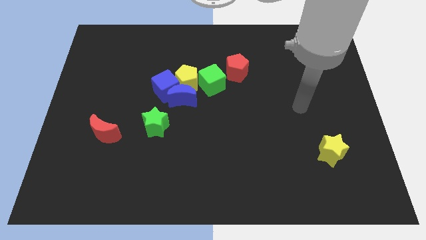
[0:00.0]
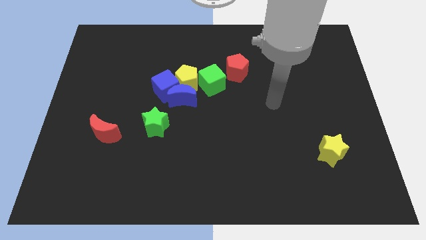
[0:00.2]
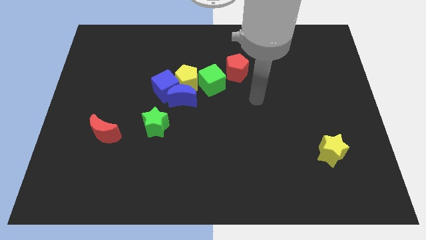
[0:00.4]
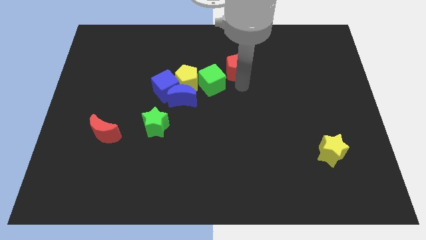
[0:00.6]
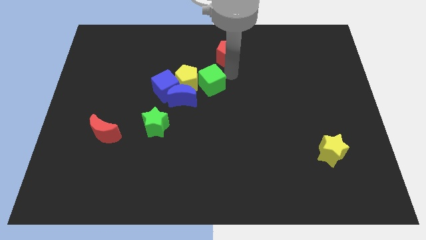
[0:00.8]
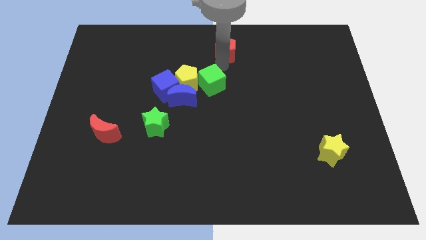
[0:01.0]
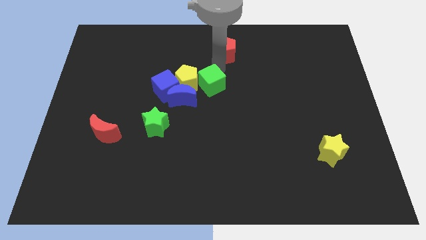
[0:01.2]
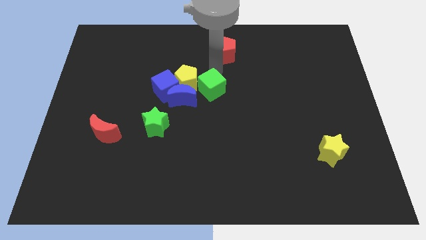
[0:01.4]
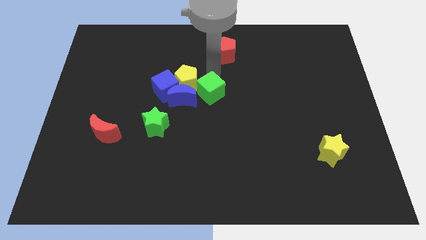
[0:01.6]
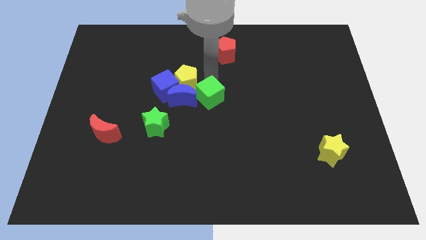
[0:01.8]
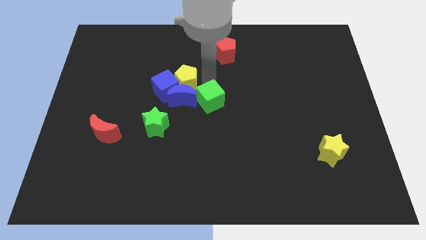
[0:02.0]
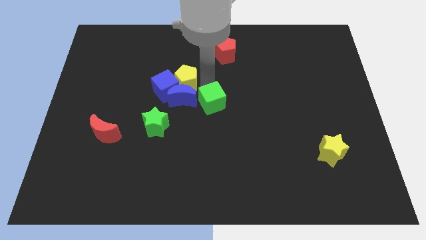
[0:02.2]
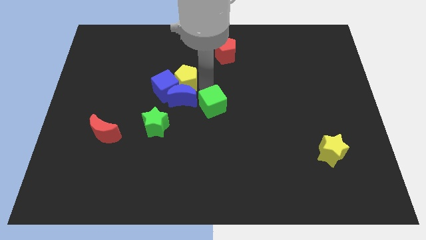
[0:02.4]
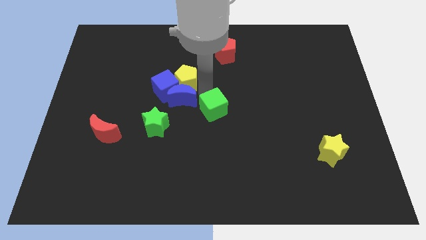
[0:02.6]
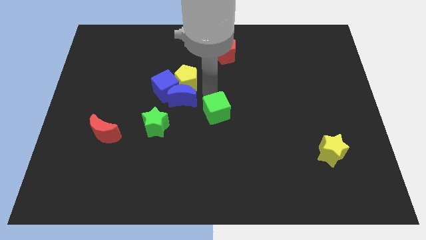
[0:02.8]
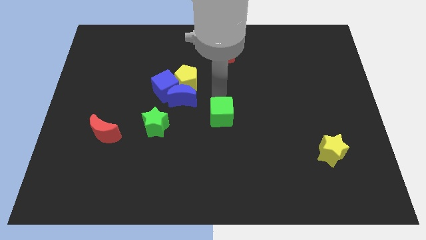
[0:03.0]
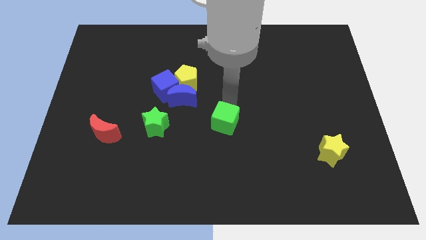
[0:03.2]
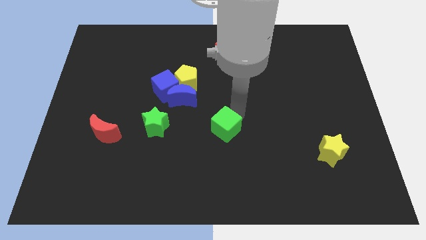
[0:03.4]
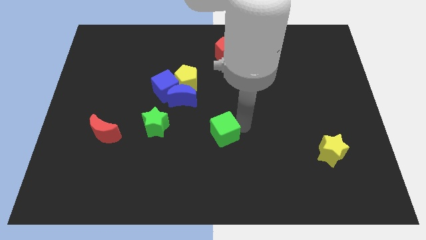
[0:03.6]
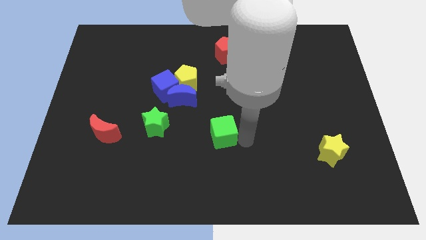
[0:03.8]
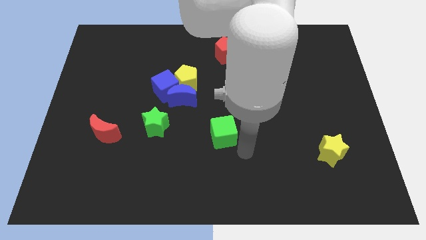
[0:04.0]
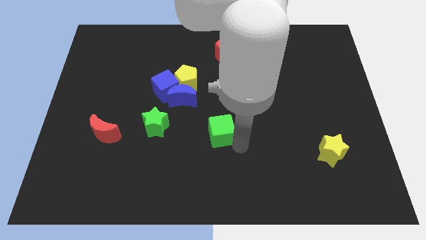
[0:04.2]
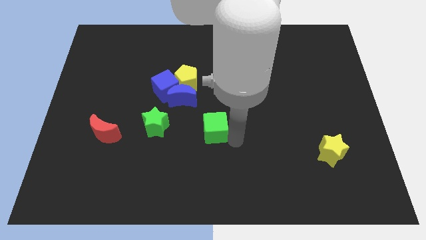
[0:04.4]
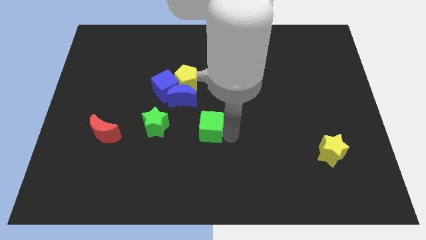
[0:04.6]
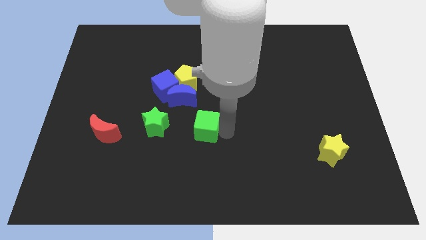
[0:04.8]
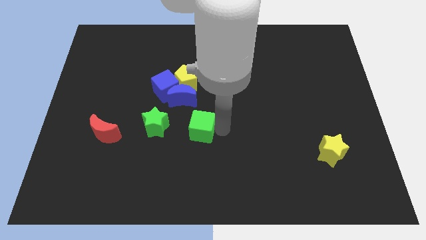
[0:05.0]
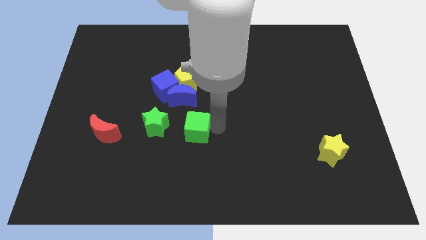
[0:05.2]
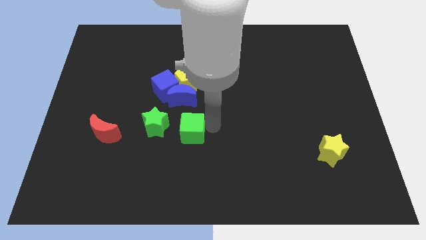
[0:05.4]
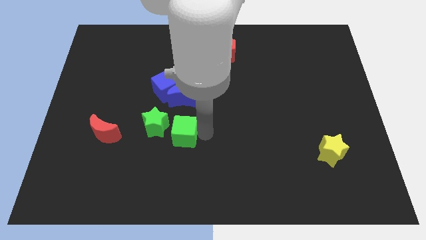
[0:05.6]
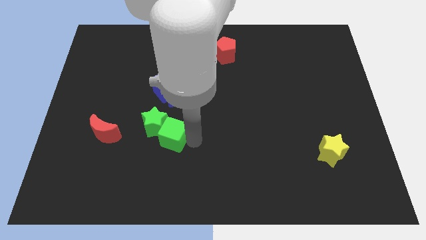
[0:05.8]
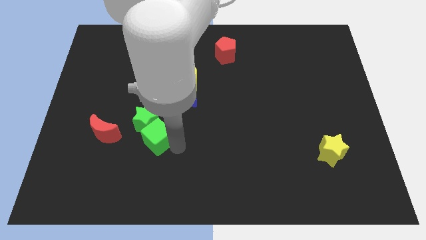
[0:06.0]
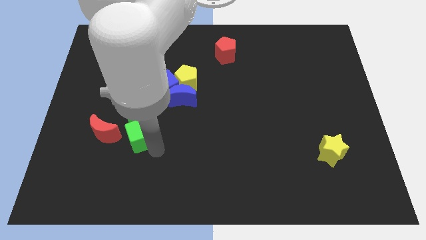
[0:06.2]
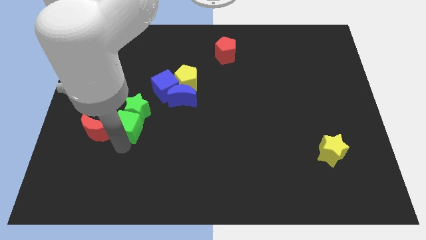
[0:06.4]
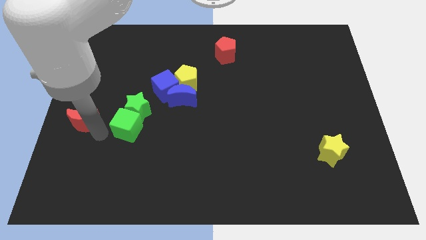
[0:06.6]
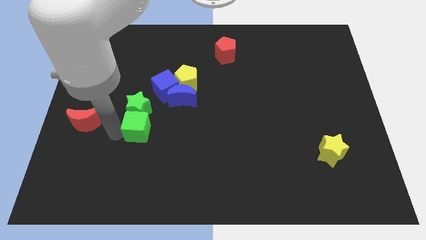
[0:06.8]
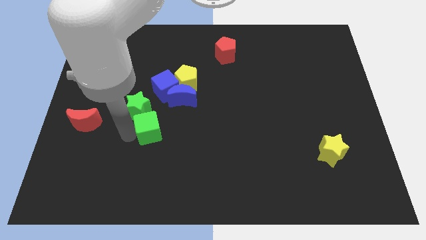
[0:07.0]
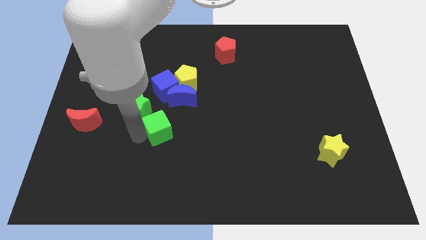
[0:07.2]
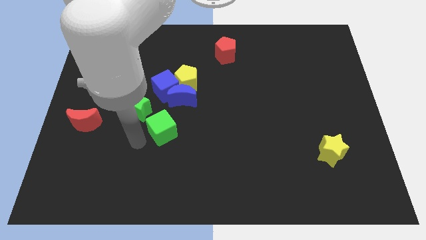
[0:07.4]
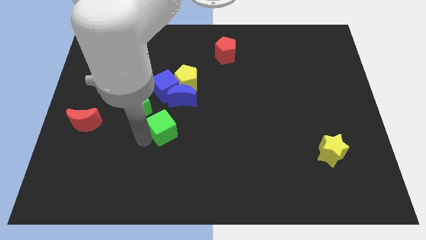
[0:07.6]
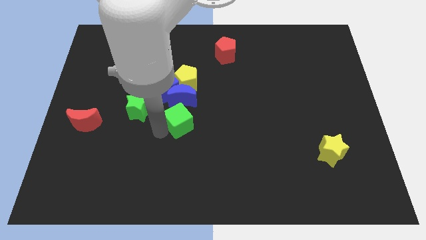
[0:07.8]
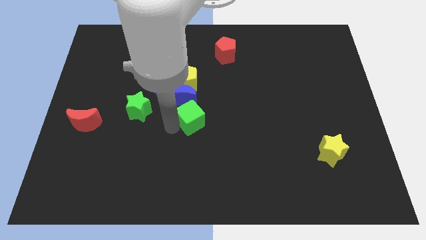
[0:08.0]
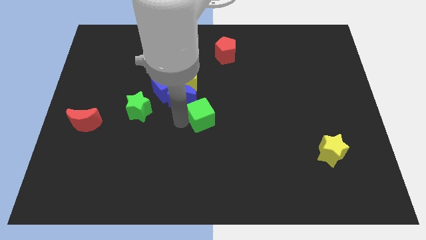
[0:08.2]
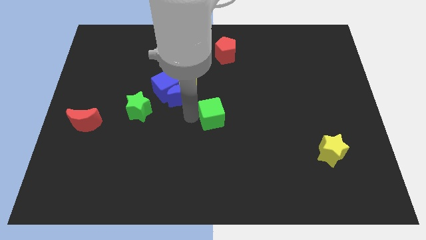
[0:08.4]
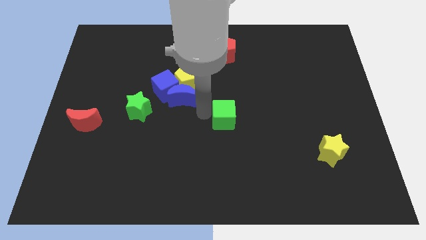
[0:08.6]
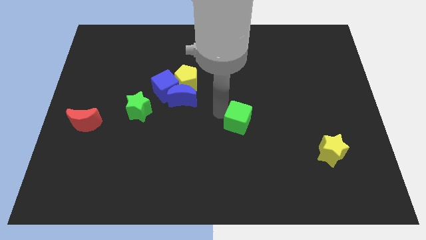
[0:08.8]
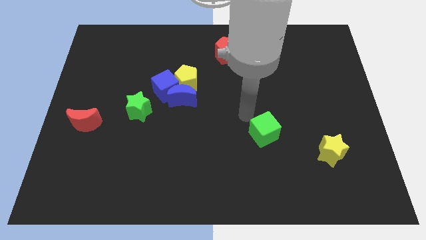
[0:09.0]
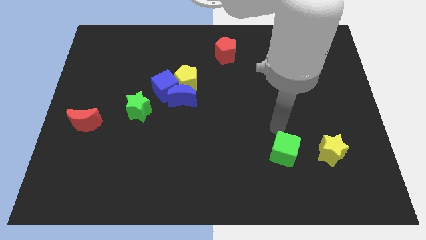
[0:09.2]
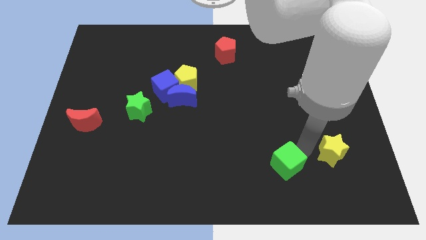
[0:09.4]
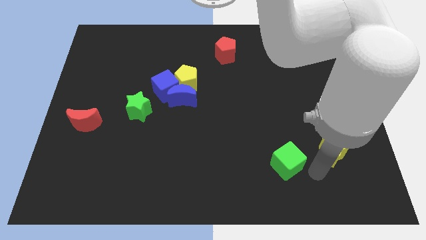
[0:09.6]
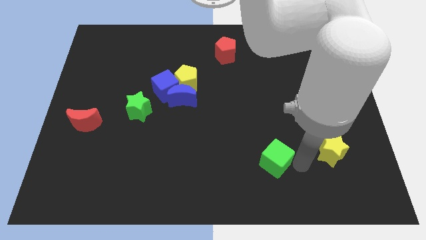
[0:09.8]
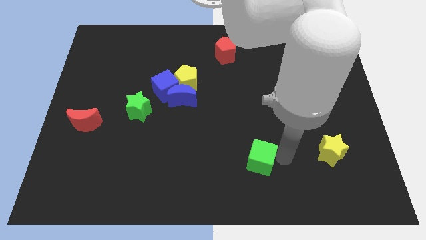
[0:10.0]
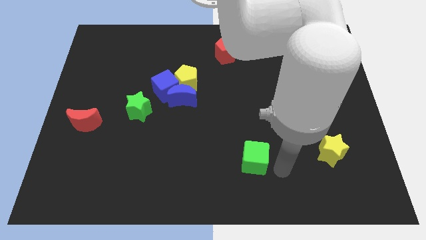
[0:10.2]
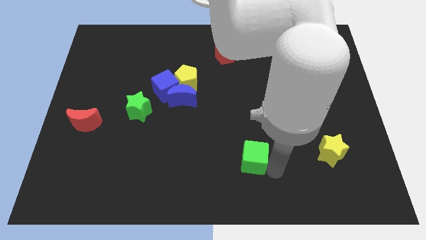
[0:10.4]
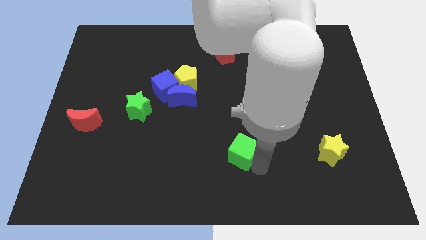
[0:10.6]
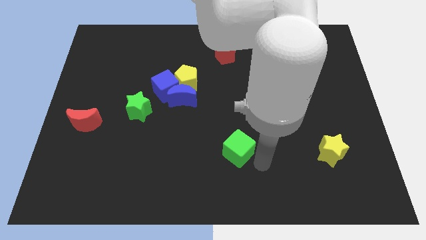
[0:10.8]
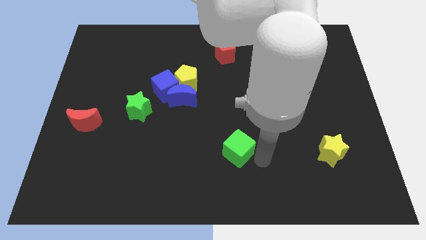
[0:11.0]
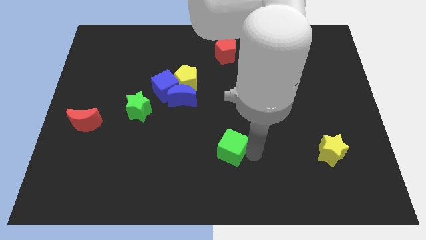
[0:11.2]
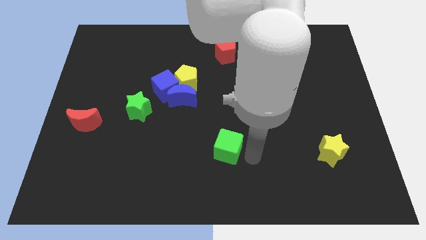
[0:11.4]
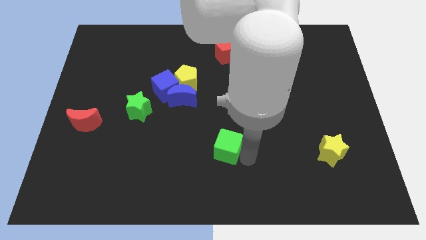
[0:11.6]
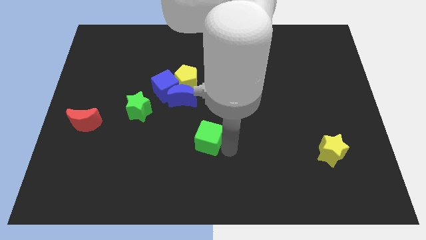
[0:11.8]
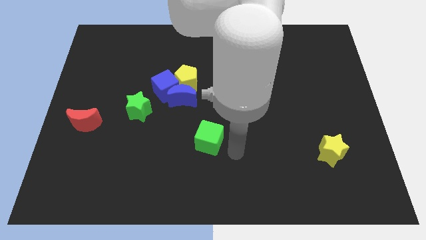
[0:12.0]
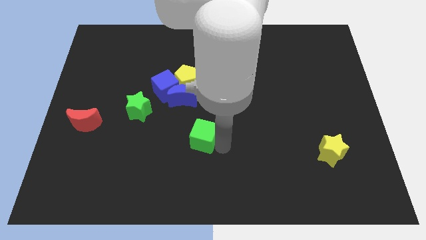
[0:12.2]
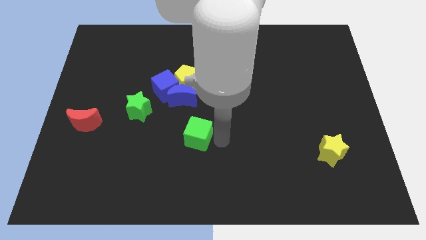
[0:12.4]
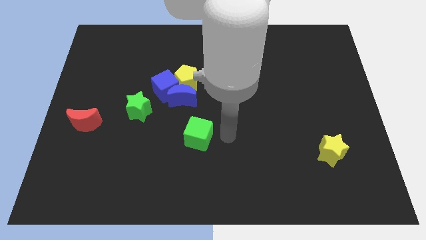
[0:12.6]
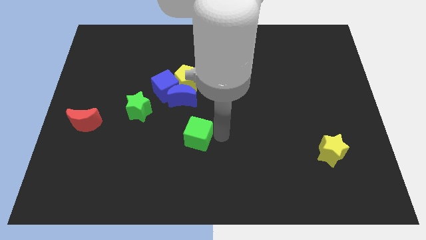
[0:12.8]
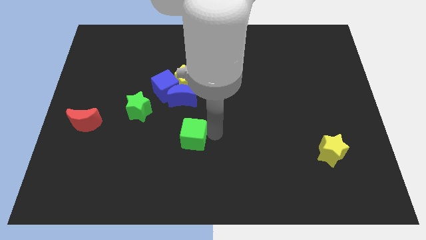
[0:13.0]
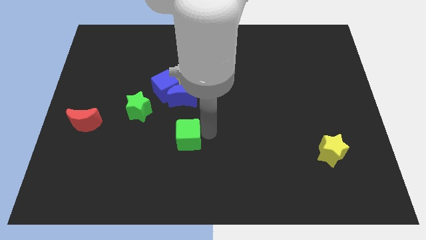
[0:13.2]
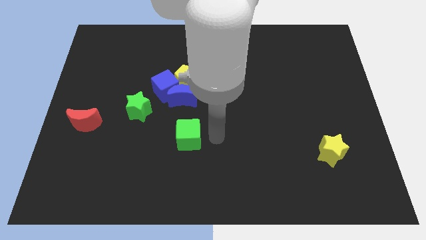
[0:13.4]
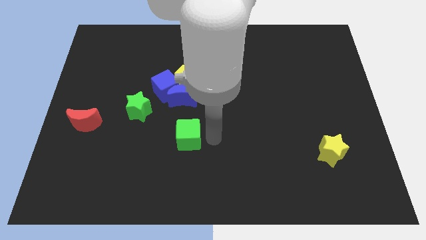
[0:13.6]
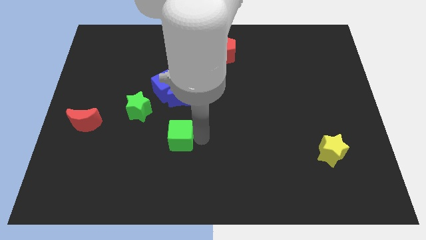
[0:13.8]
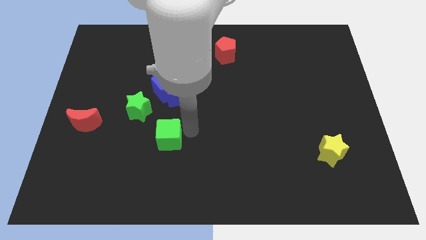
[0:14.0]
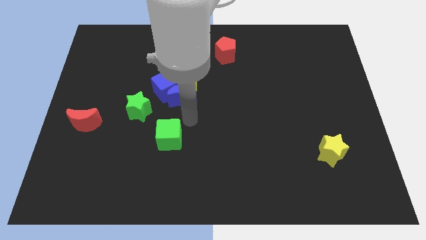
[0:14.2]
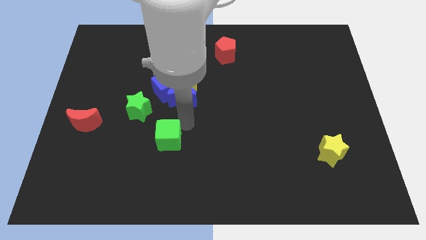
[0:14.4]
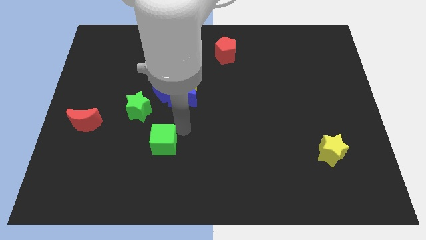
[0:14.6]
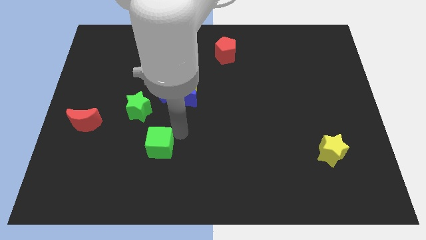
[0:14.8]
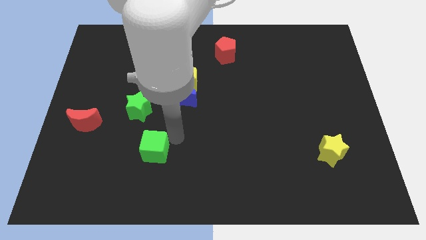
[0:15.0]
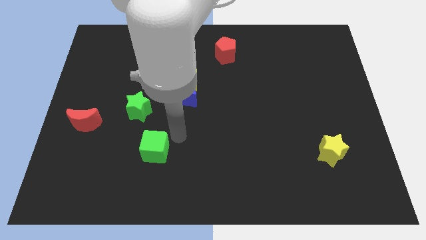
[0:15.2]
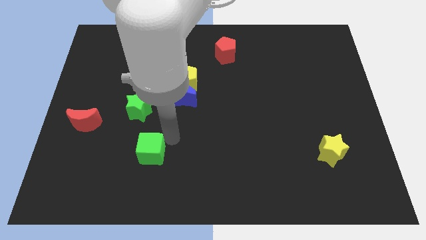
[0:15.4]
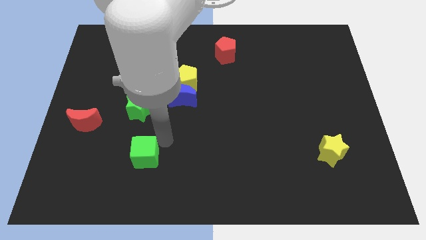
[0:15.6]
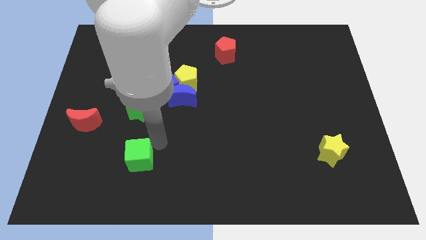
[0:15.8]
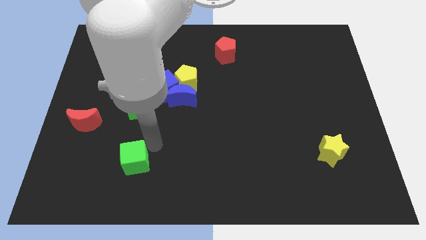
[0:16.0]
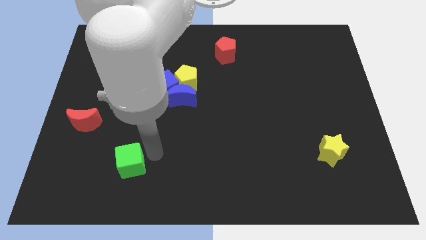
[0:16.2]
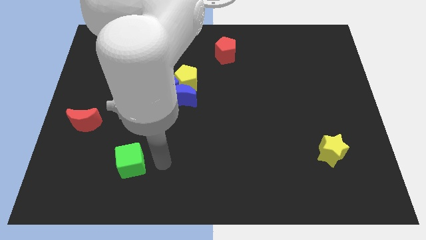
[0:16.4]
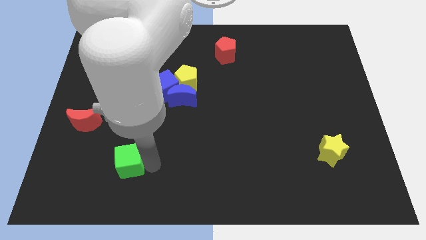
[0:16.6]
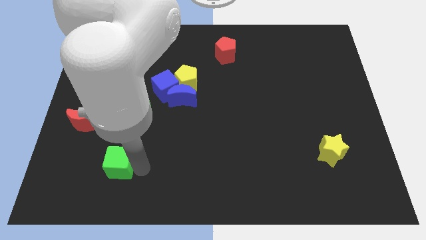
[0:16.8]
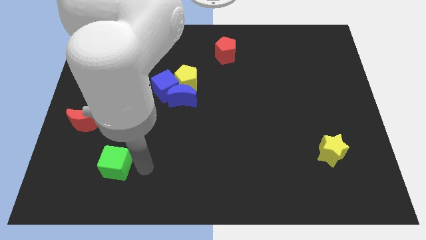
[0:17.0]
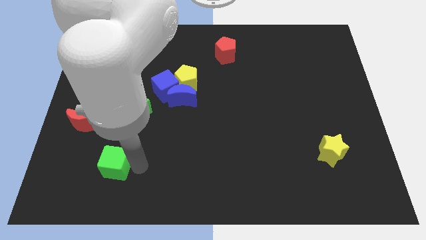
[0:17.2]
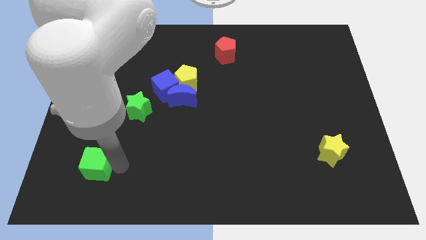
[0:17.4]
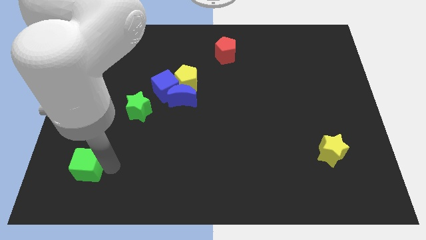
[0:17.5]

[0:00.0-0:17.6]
slide the green cube to the bottom side of the red moon
